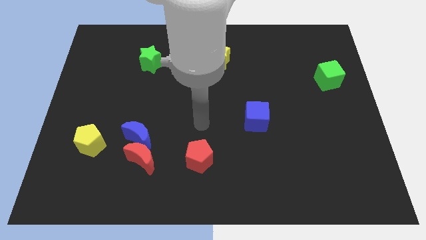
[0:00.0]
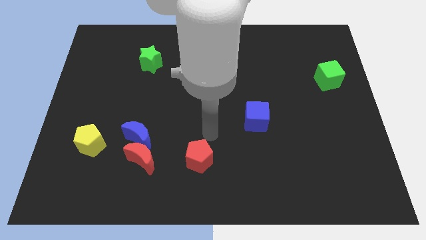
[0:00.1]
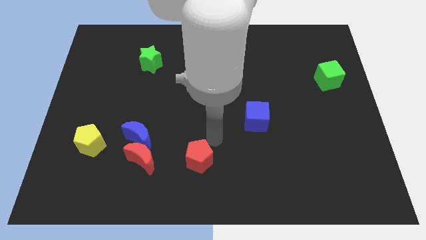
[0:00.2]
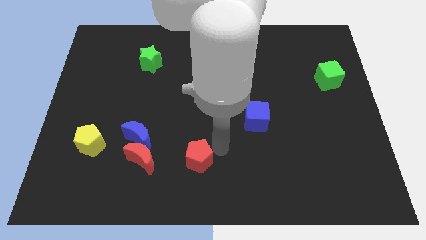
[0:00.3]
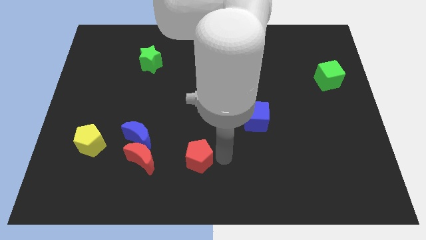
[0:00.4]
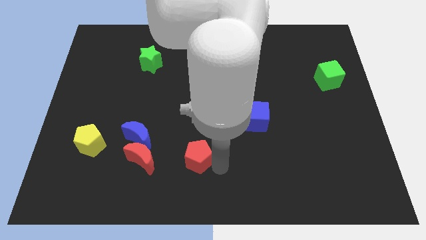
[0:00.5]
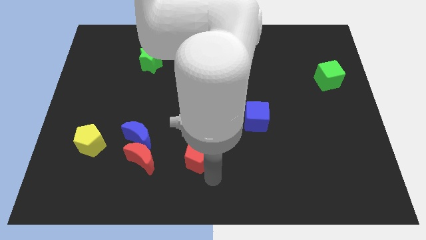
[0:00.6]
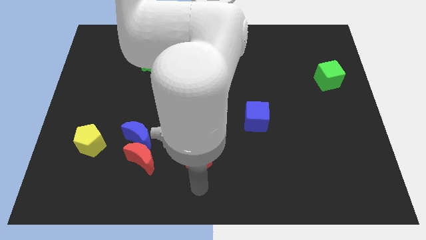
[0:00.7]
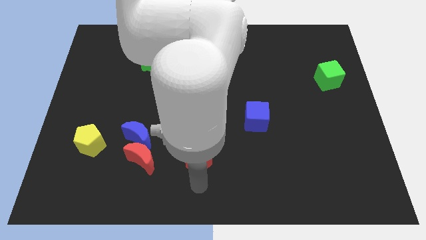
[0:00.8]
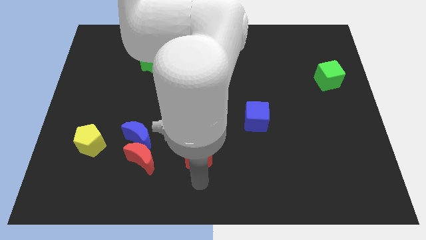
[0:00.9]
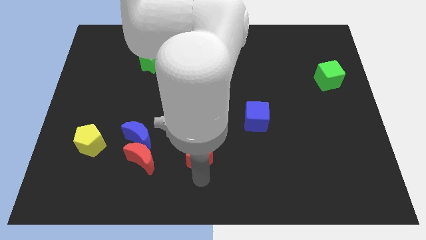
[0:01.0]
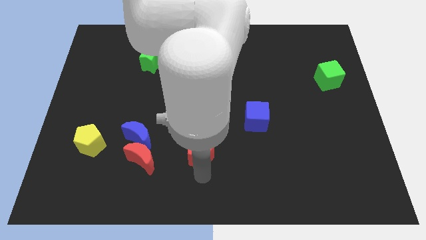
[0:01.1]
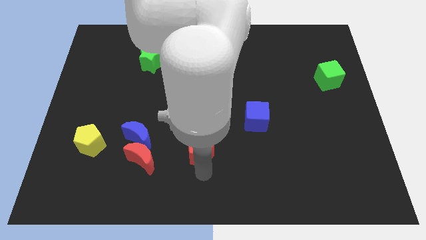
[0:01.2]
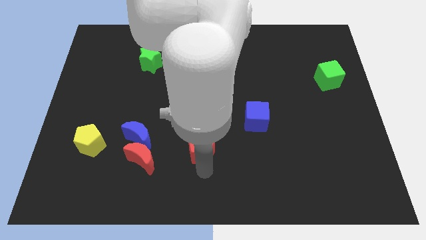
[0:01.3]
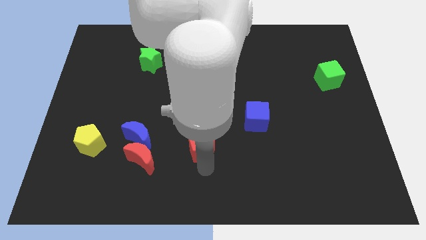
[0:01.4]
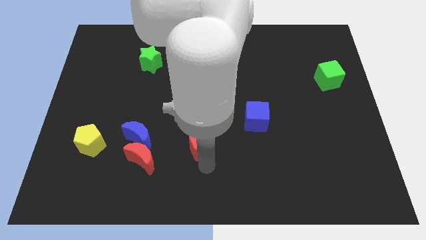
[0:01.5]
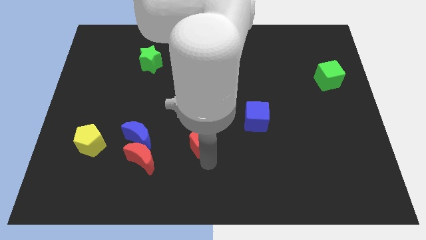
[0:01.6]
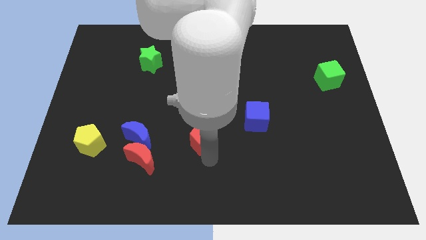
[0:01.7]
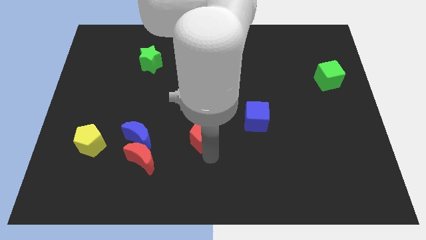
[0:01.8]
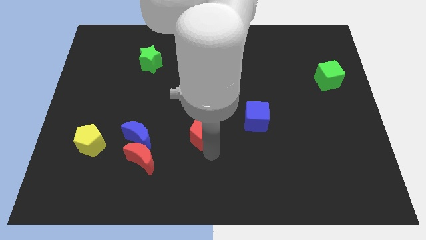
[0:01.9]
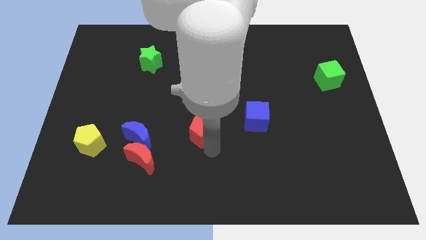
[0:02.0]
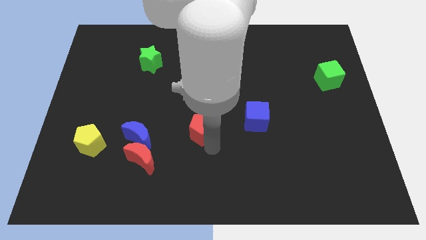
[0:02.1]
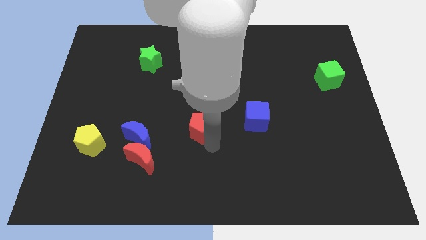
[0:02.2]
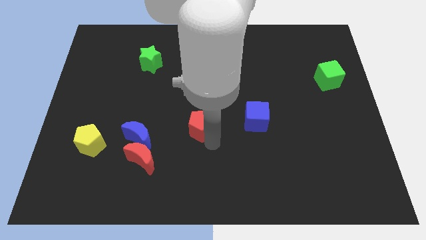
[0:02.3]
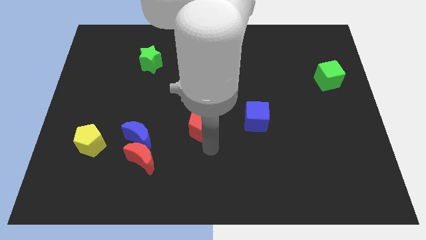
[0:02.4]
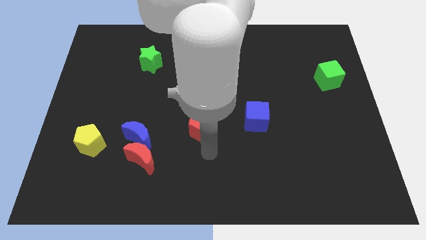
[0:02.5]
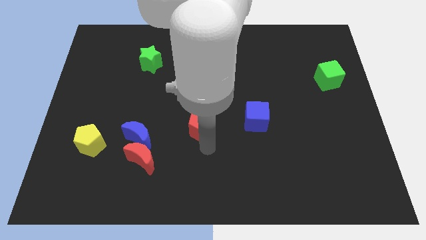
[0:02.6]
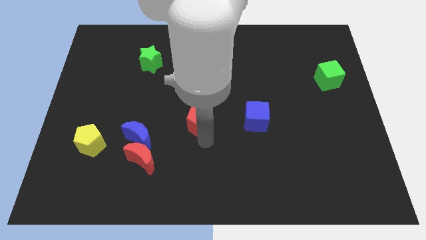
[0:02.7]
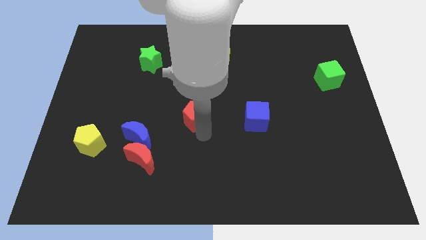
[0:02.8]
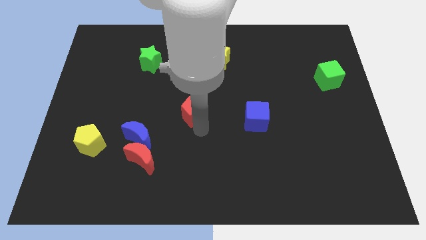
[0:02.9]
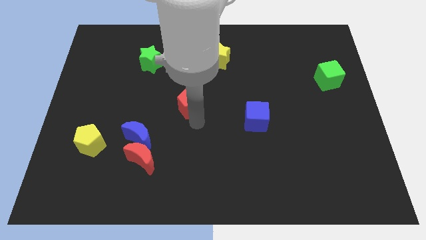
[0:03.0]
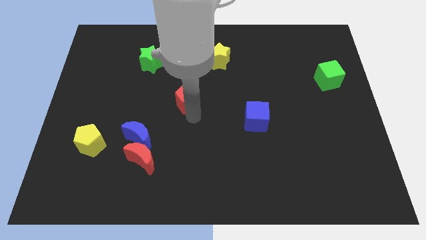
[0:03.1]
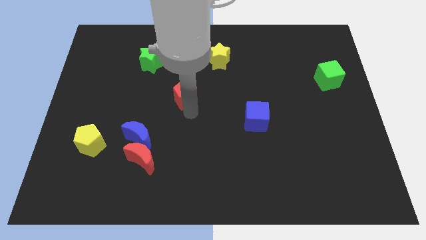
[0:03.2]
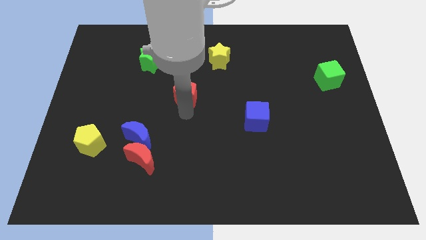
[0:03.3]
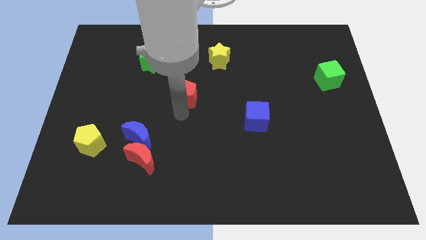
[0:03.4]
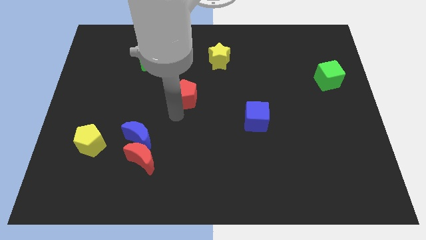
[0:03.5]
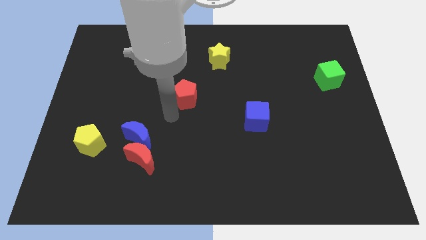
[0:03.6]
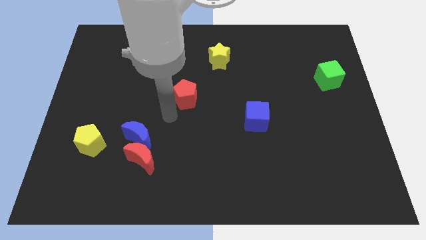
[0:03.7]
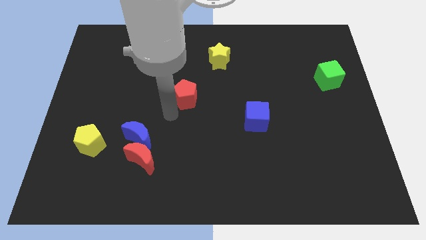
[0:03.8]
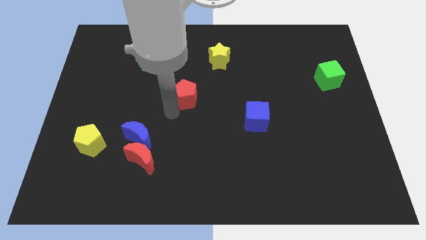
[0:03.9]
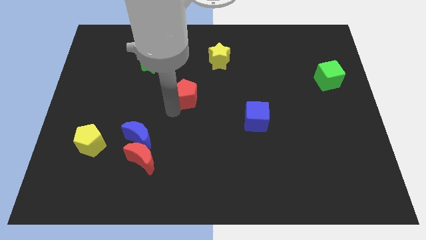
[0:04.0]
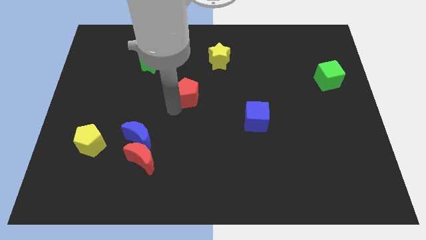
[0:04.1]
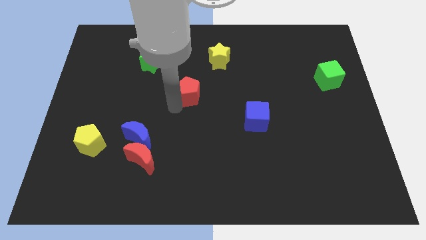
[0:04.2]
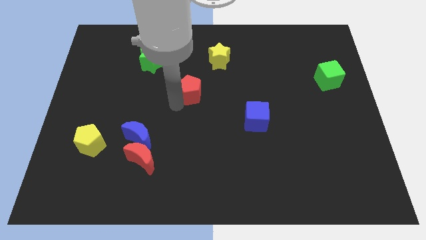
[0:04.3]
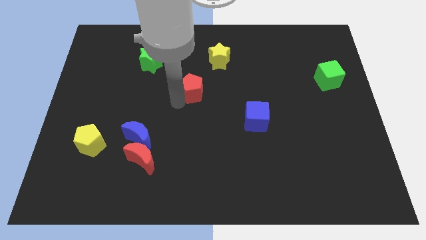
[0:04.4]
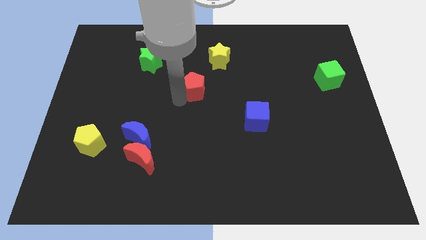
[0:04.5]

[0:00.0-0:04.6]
move the red pentagon to the bottom left side of the yellow star

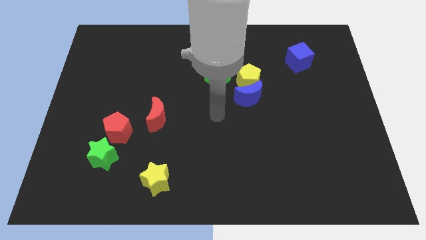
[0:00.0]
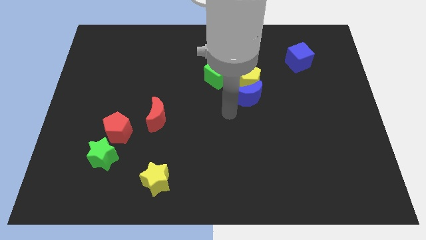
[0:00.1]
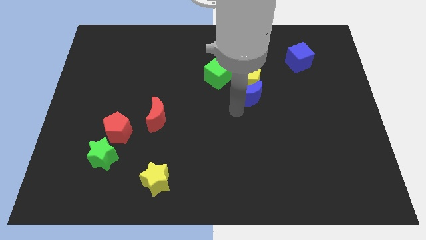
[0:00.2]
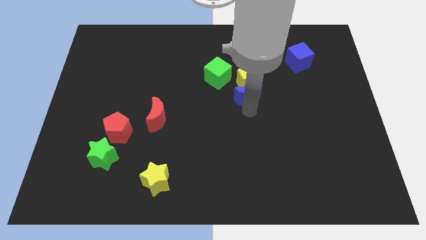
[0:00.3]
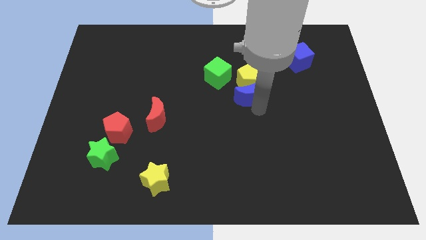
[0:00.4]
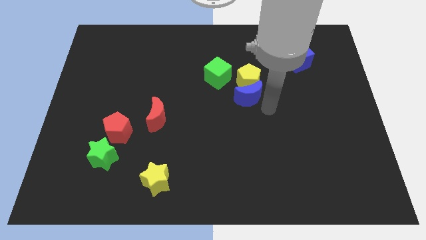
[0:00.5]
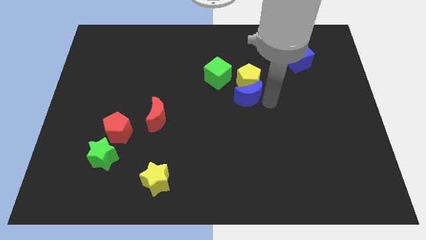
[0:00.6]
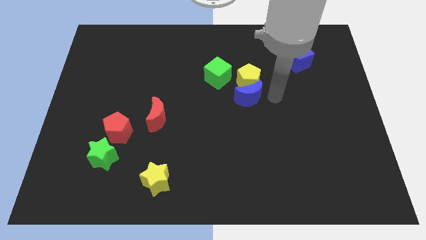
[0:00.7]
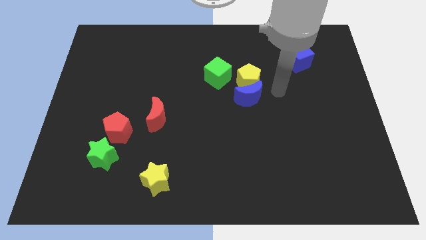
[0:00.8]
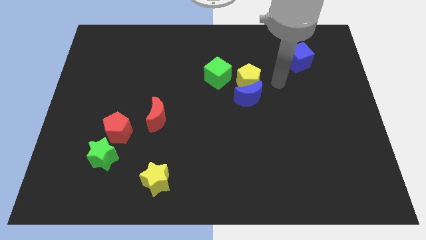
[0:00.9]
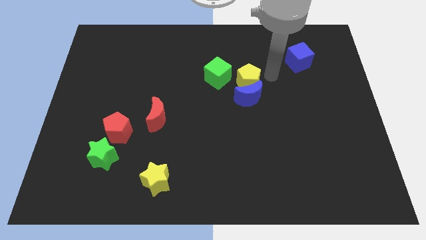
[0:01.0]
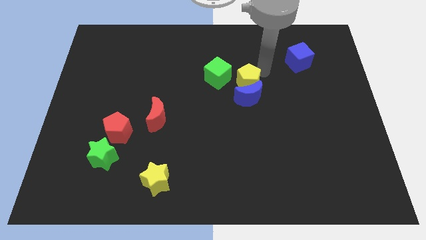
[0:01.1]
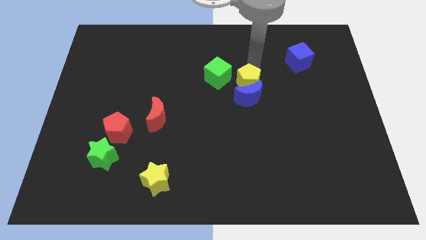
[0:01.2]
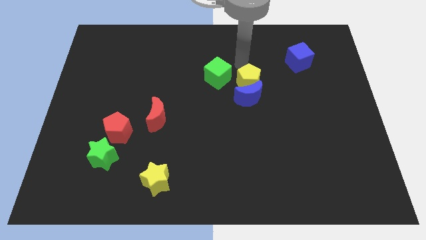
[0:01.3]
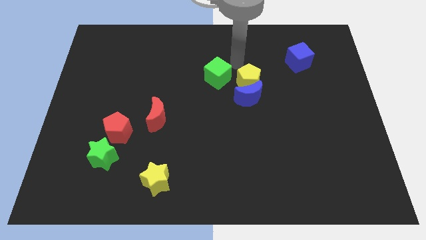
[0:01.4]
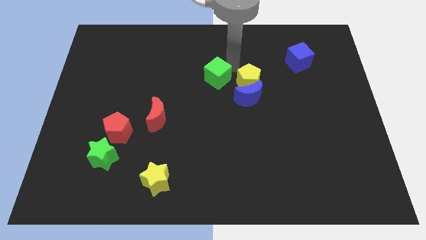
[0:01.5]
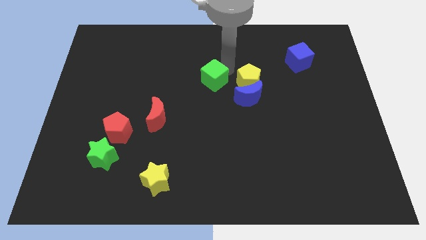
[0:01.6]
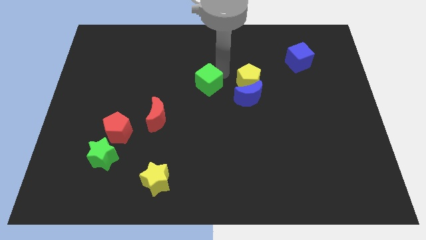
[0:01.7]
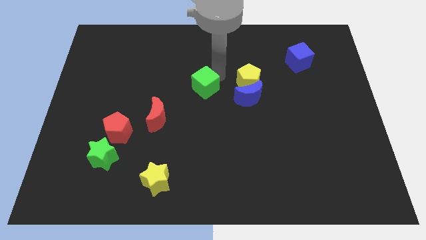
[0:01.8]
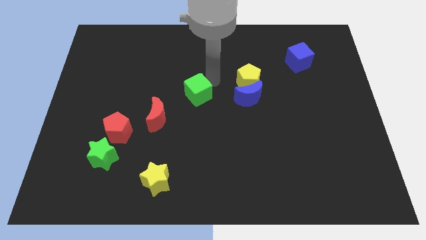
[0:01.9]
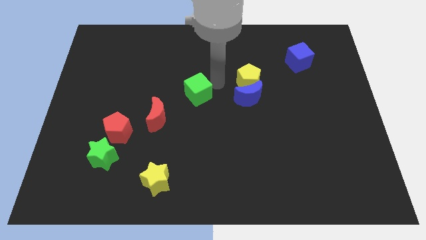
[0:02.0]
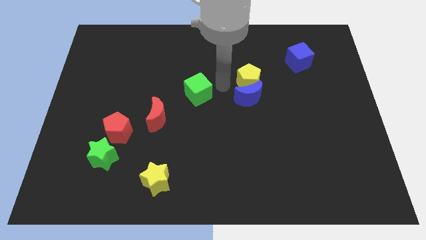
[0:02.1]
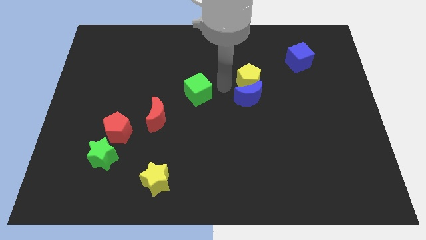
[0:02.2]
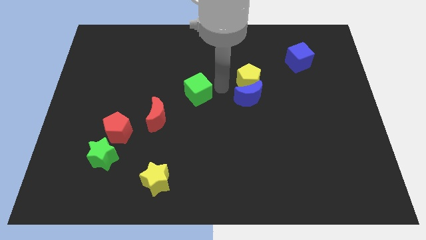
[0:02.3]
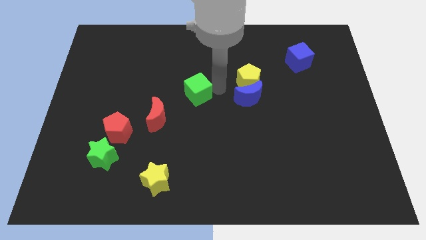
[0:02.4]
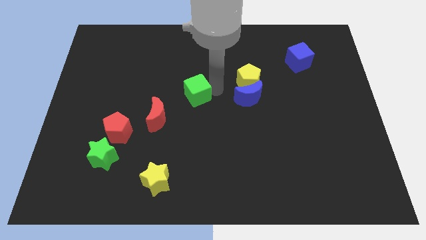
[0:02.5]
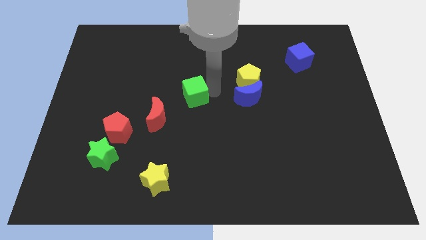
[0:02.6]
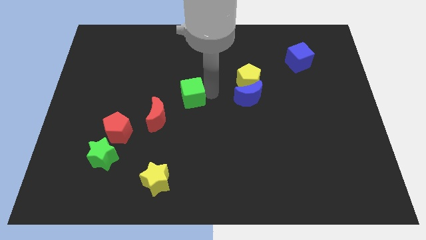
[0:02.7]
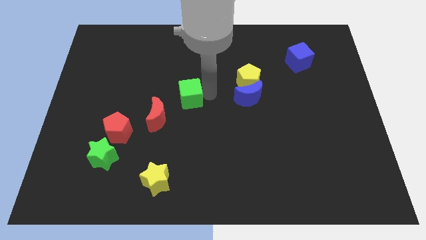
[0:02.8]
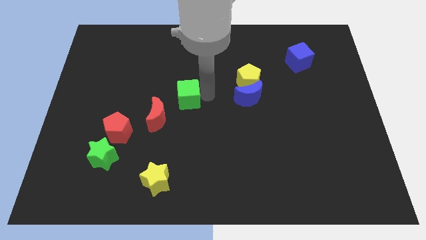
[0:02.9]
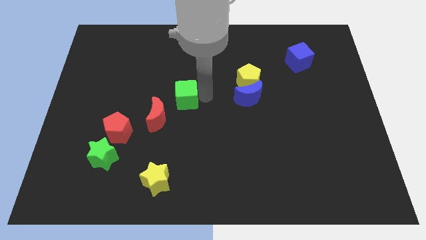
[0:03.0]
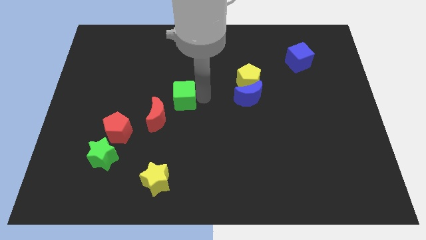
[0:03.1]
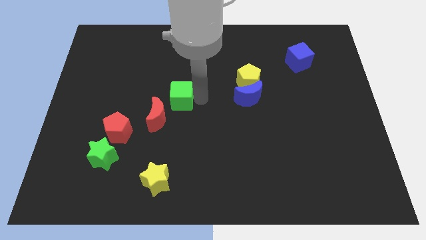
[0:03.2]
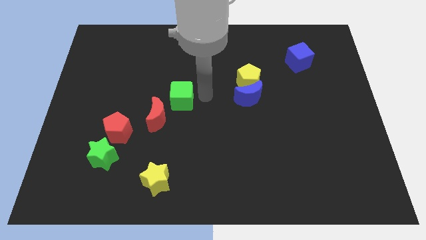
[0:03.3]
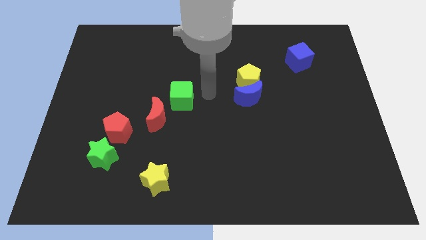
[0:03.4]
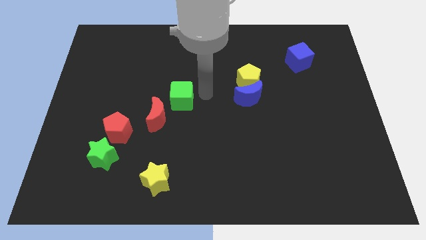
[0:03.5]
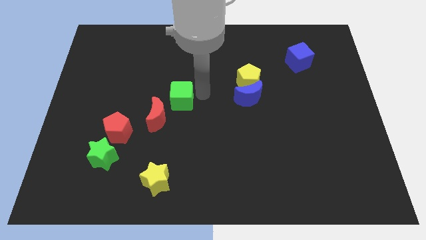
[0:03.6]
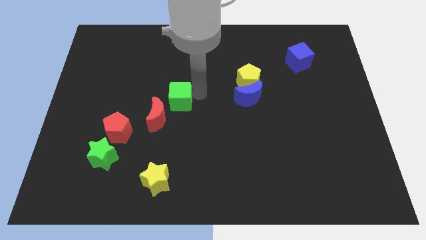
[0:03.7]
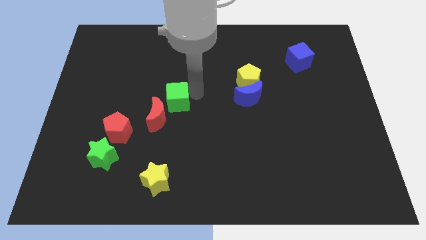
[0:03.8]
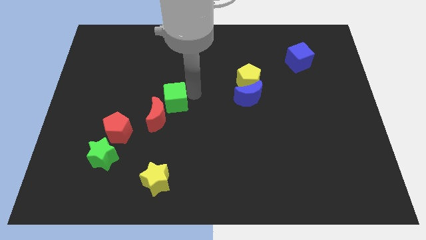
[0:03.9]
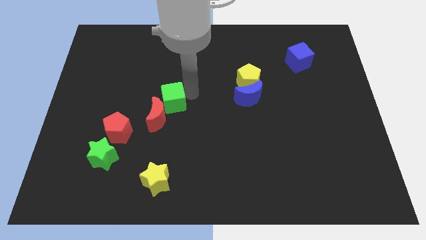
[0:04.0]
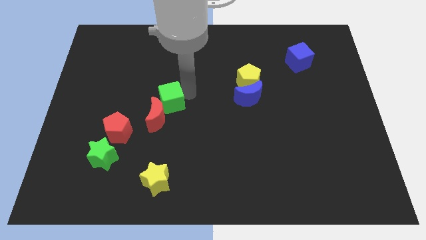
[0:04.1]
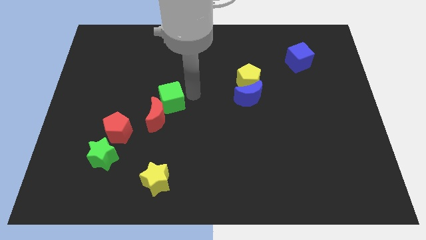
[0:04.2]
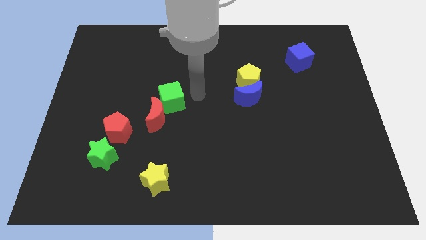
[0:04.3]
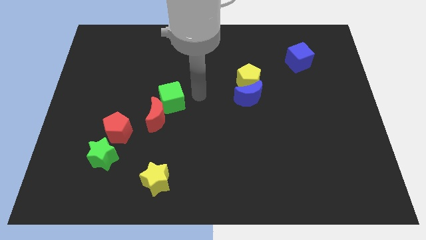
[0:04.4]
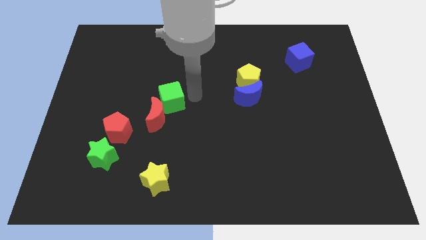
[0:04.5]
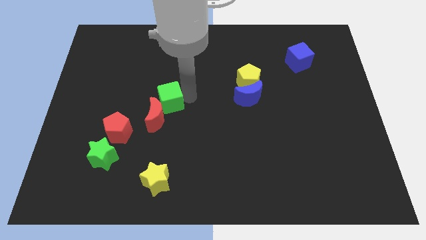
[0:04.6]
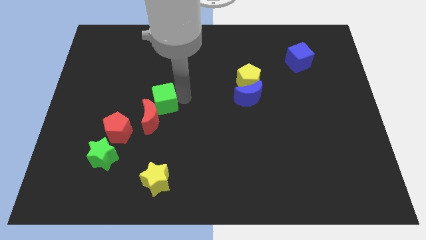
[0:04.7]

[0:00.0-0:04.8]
put the green cube to the top right side of the red pentagon
